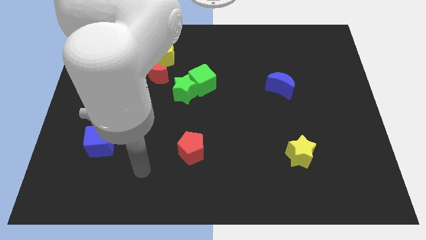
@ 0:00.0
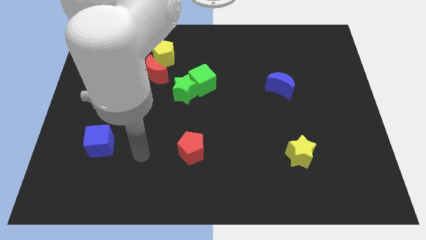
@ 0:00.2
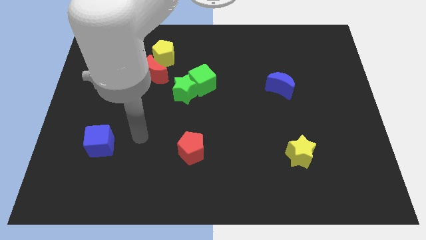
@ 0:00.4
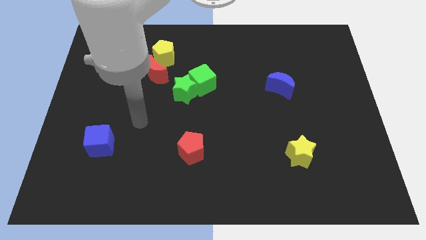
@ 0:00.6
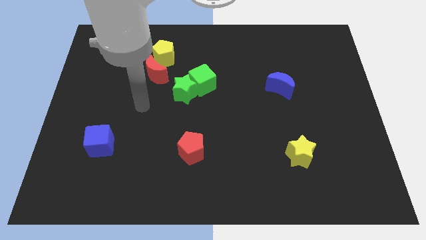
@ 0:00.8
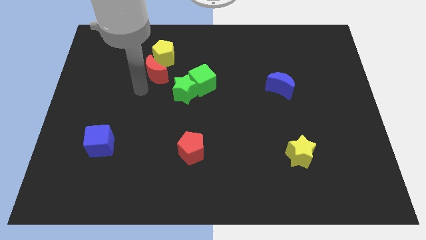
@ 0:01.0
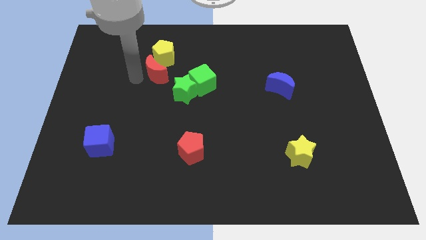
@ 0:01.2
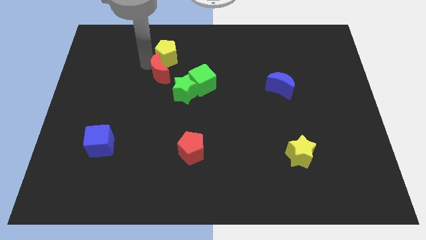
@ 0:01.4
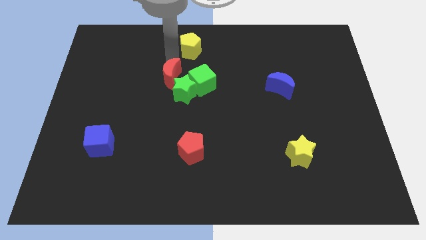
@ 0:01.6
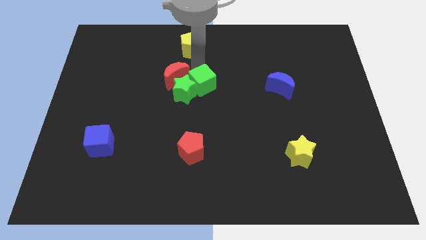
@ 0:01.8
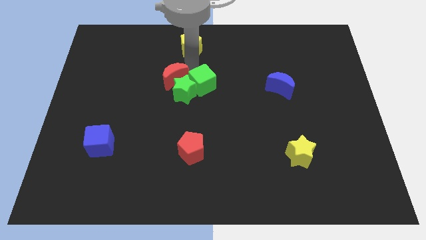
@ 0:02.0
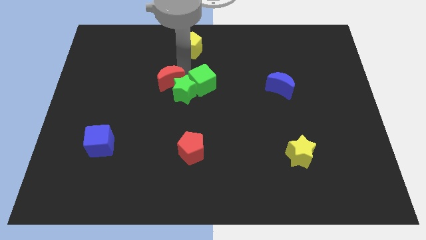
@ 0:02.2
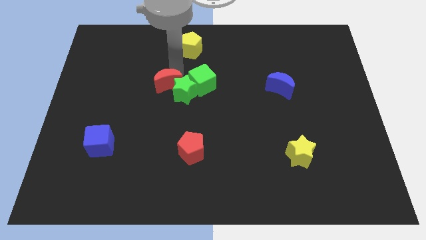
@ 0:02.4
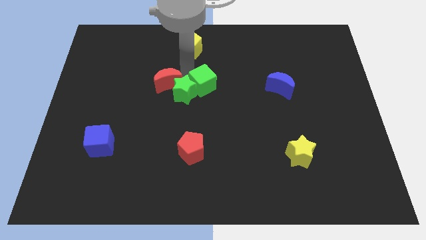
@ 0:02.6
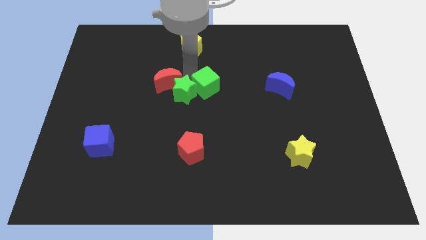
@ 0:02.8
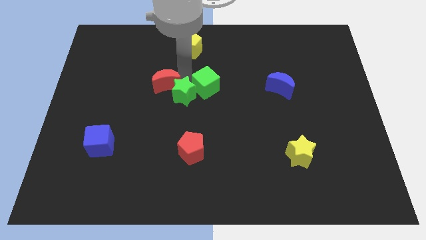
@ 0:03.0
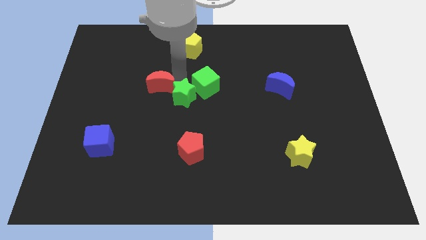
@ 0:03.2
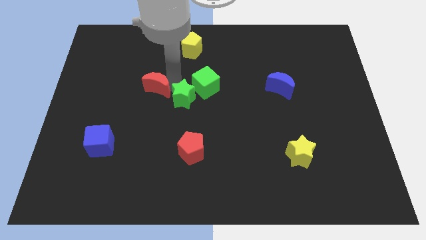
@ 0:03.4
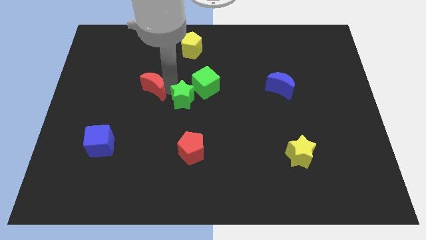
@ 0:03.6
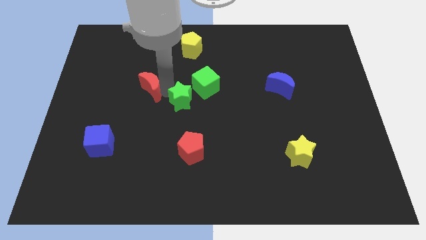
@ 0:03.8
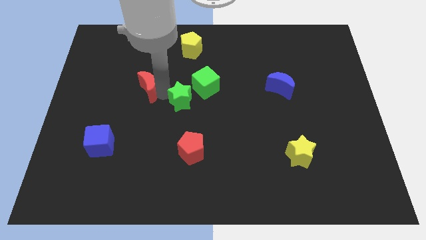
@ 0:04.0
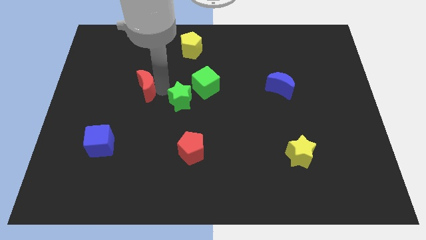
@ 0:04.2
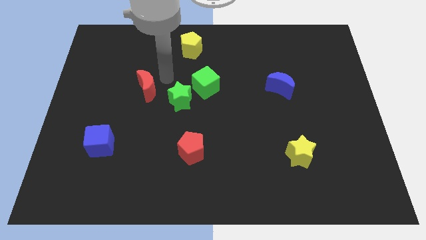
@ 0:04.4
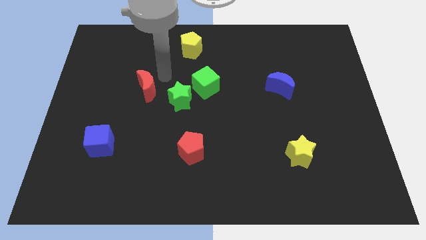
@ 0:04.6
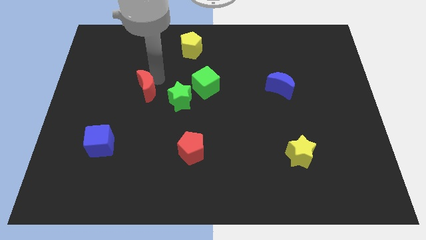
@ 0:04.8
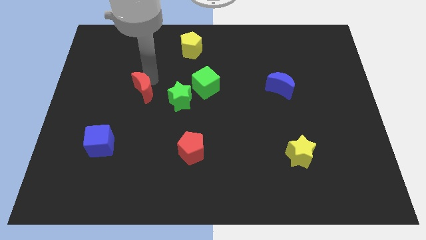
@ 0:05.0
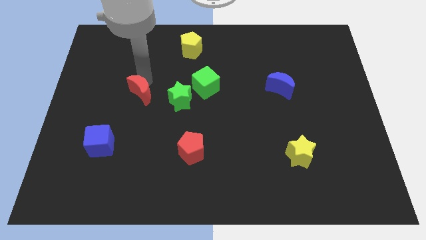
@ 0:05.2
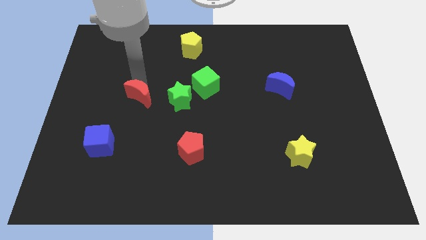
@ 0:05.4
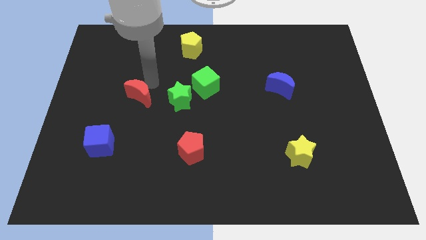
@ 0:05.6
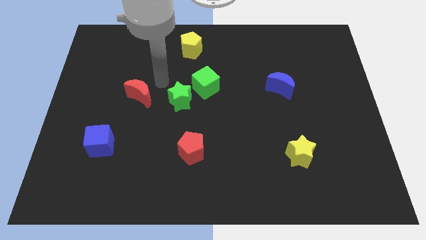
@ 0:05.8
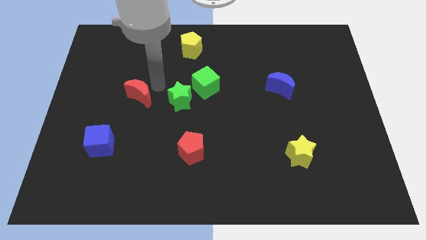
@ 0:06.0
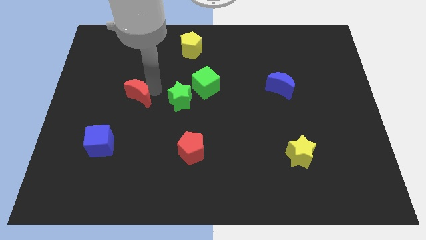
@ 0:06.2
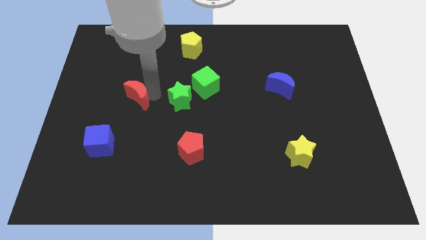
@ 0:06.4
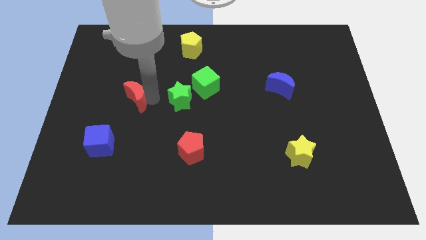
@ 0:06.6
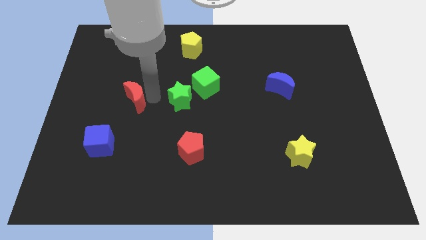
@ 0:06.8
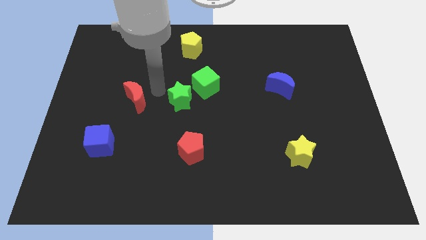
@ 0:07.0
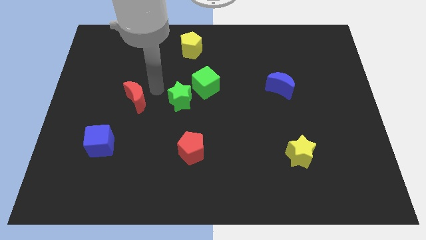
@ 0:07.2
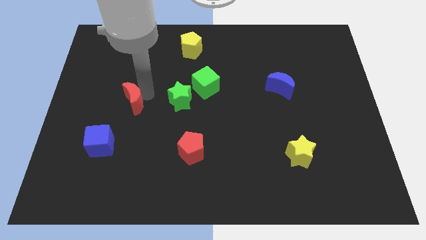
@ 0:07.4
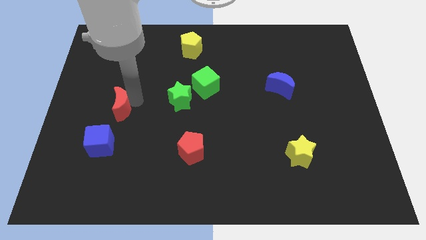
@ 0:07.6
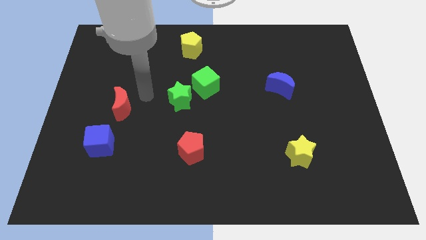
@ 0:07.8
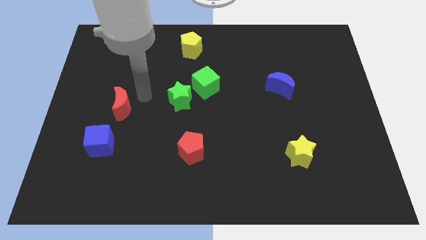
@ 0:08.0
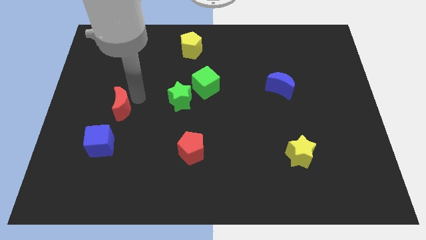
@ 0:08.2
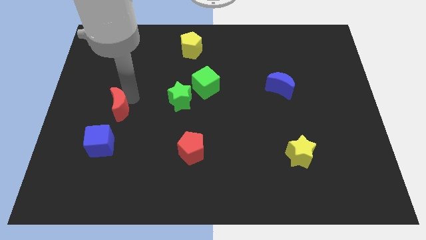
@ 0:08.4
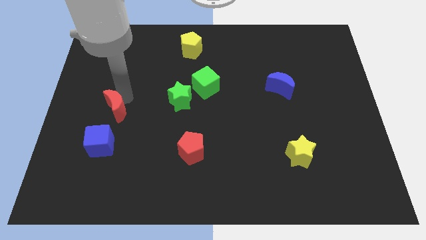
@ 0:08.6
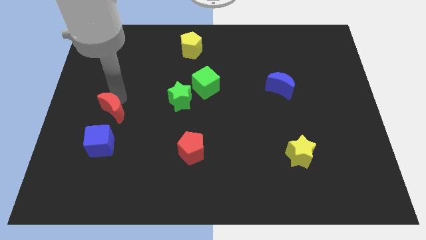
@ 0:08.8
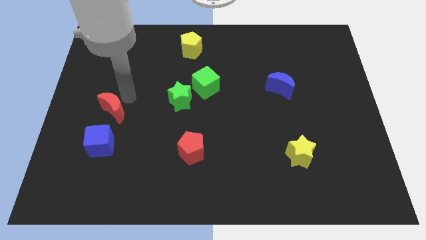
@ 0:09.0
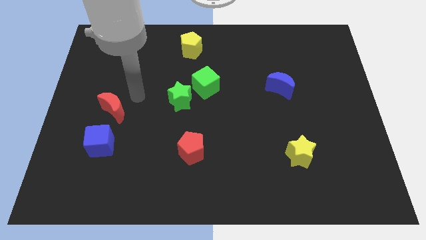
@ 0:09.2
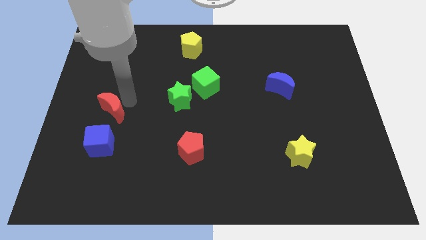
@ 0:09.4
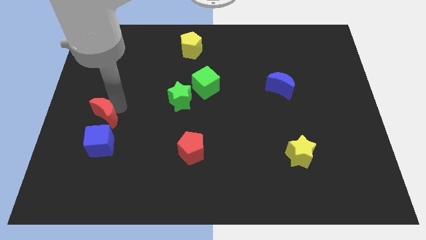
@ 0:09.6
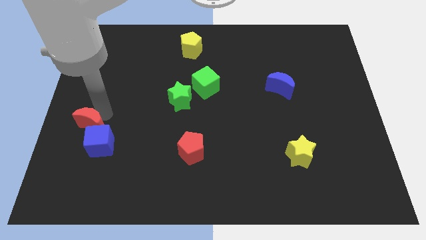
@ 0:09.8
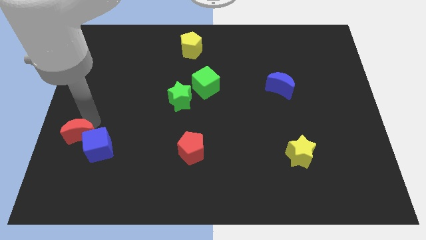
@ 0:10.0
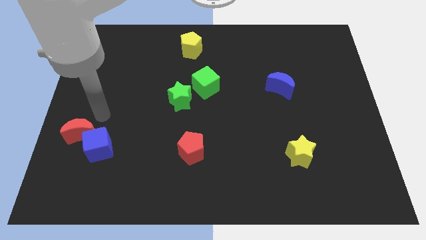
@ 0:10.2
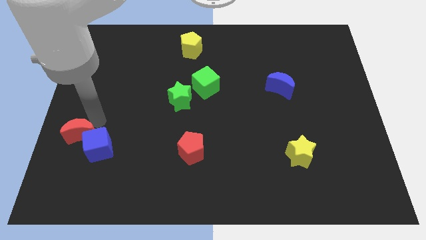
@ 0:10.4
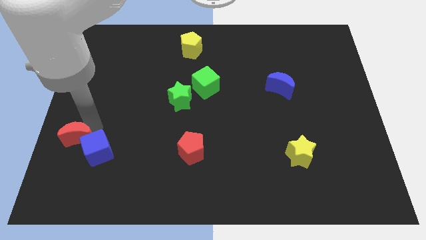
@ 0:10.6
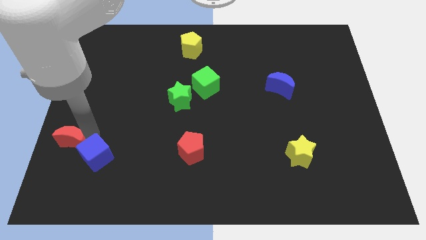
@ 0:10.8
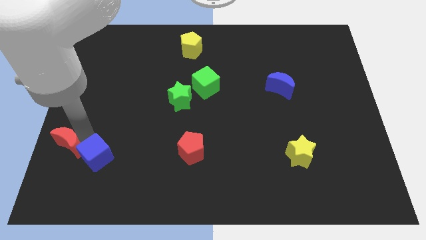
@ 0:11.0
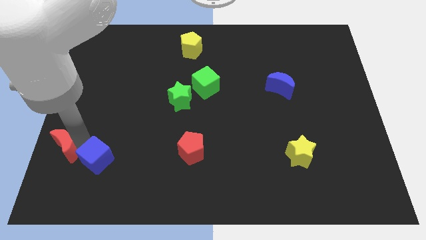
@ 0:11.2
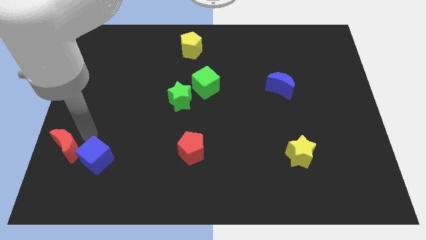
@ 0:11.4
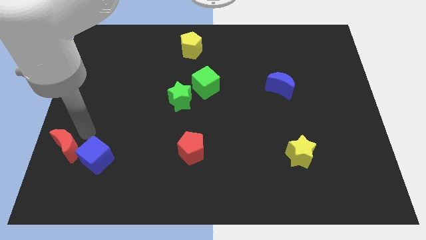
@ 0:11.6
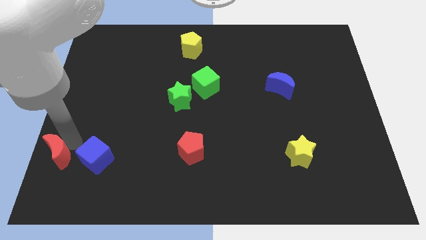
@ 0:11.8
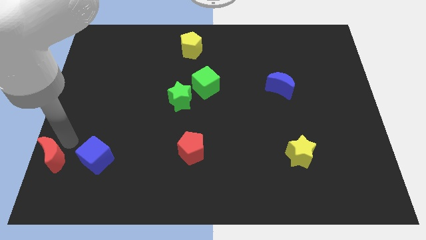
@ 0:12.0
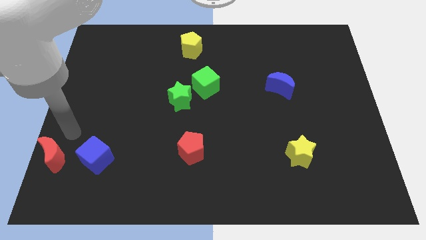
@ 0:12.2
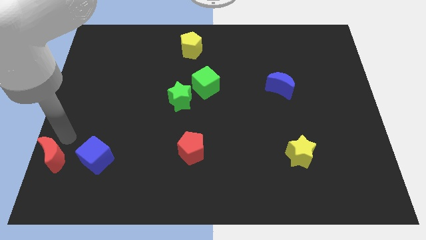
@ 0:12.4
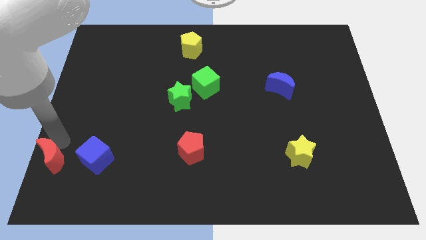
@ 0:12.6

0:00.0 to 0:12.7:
slide the red moon to the lower left corner

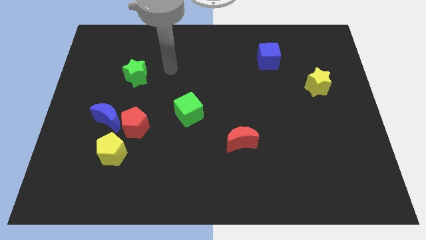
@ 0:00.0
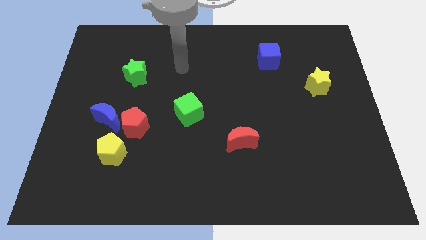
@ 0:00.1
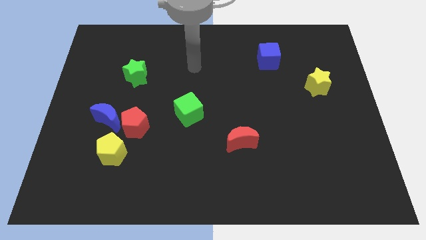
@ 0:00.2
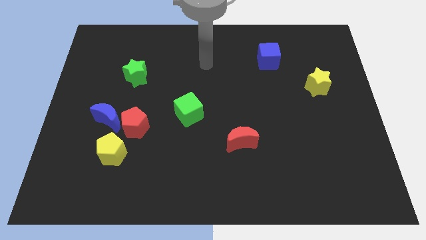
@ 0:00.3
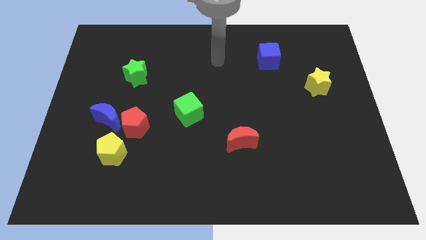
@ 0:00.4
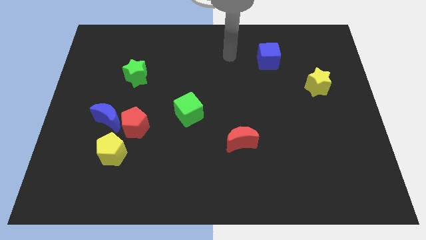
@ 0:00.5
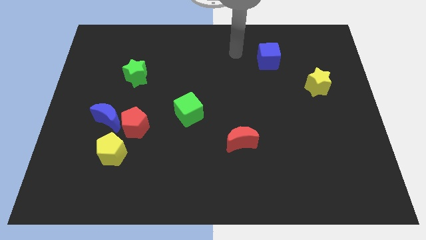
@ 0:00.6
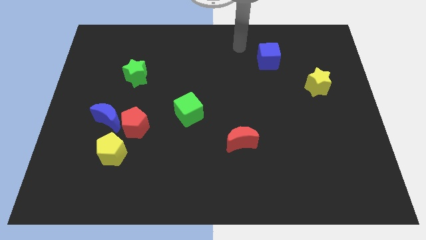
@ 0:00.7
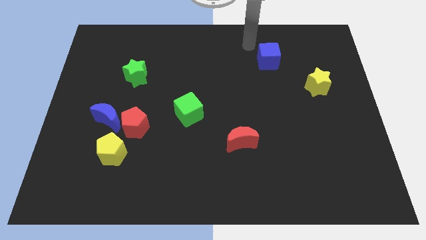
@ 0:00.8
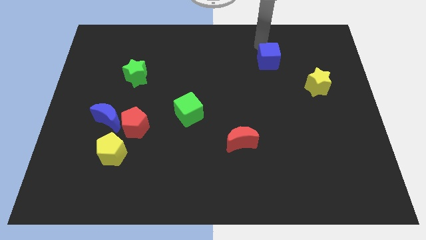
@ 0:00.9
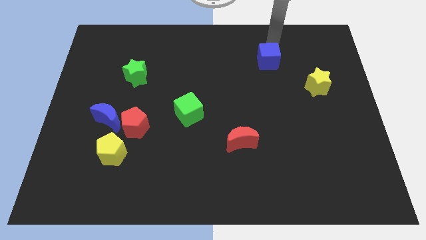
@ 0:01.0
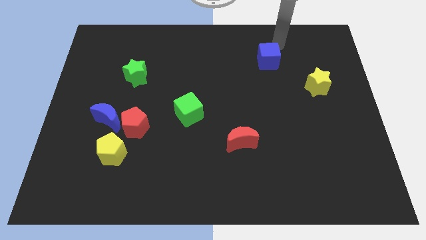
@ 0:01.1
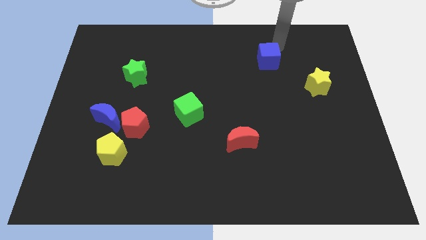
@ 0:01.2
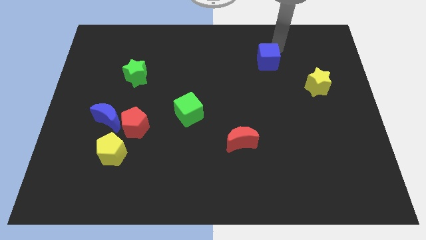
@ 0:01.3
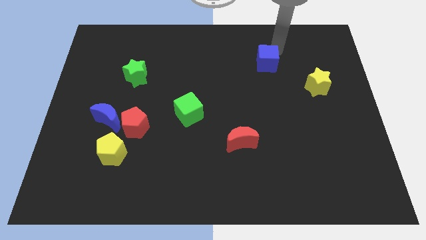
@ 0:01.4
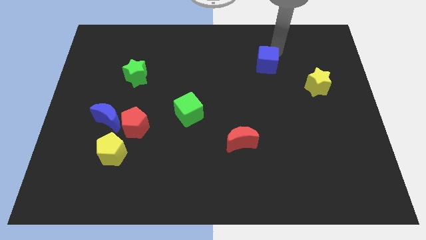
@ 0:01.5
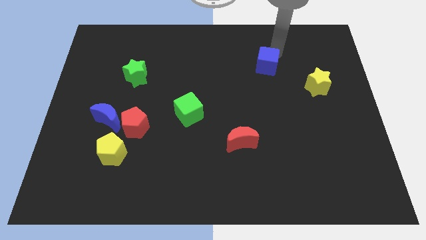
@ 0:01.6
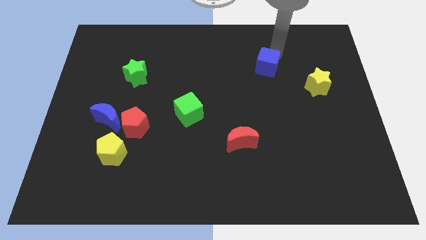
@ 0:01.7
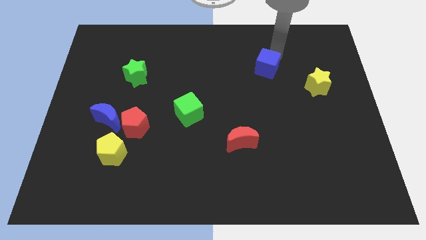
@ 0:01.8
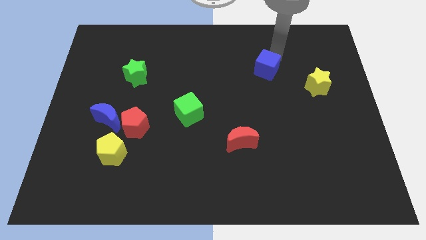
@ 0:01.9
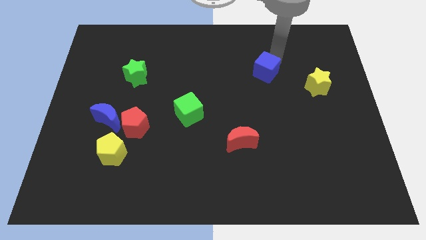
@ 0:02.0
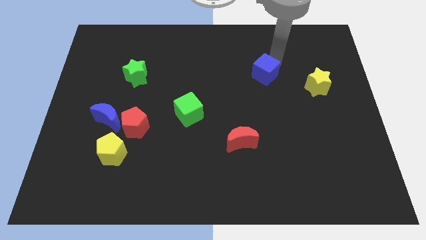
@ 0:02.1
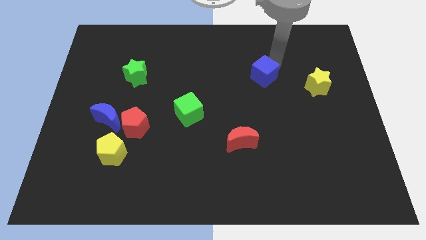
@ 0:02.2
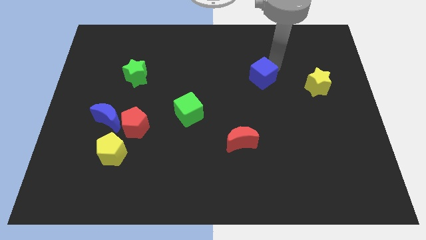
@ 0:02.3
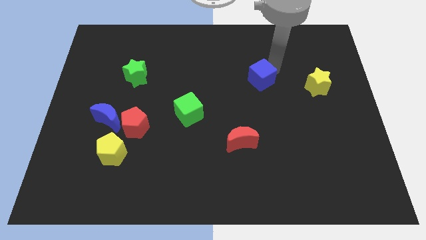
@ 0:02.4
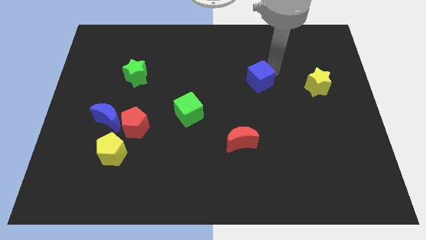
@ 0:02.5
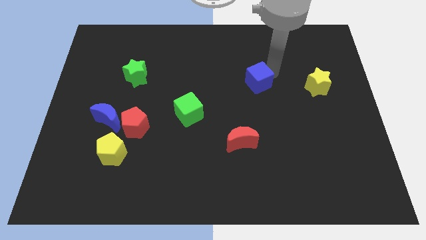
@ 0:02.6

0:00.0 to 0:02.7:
put the blue cube to the middle
